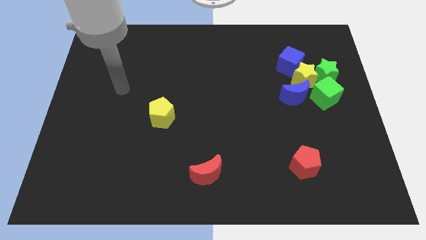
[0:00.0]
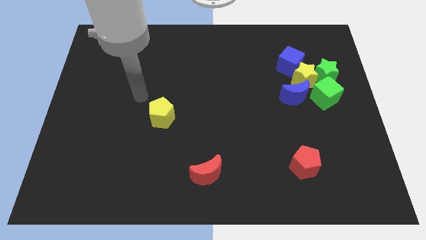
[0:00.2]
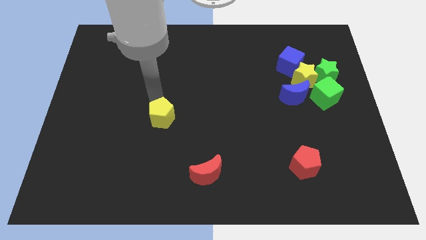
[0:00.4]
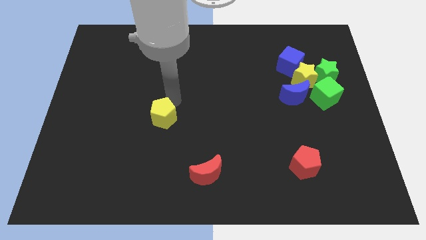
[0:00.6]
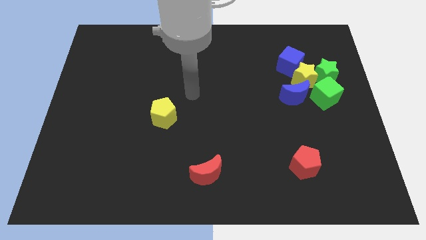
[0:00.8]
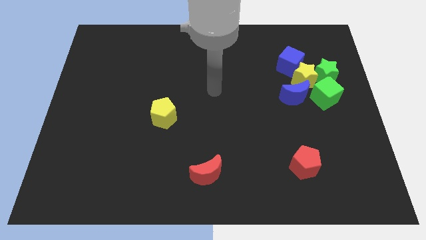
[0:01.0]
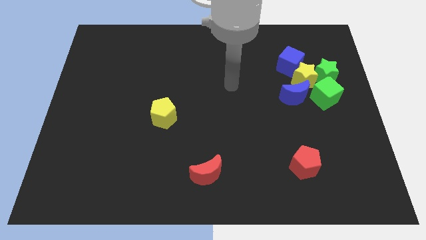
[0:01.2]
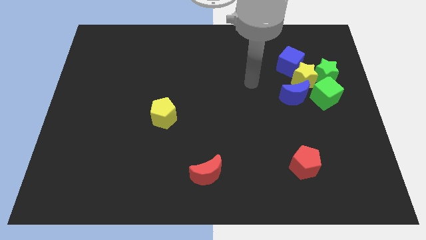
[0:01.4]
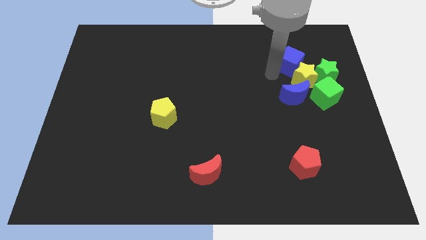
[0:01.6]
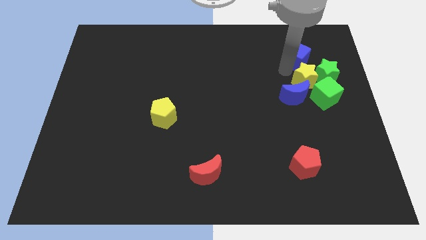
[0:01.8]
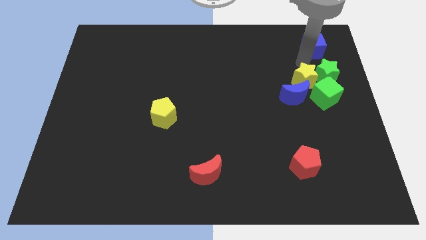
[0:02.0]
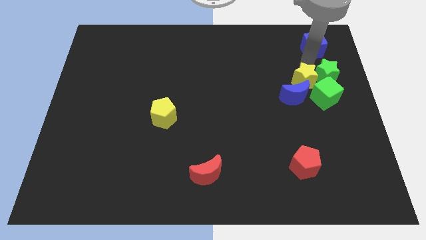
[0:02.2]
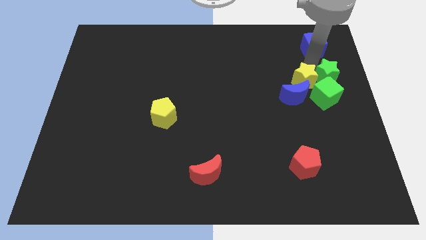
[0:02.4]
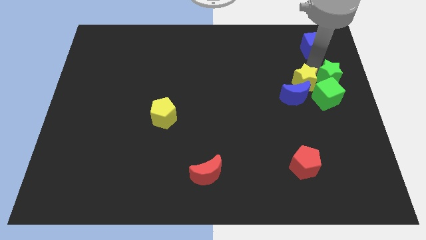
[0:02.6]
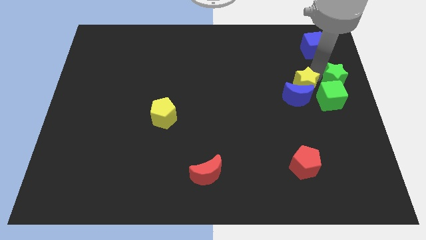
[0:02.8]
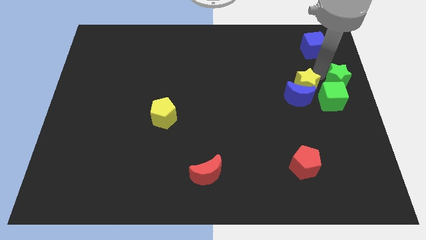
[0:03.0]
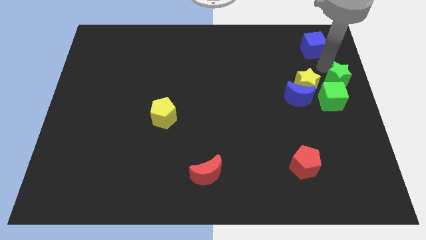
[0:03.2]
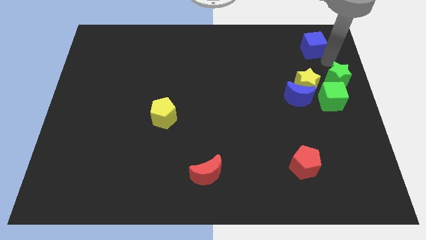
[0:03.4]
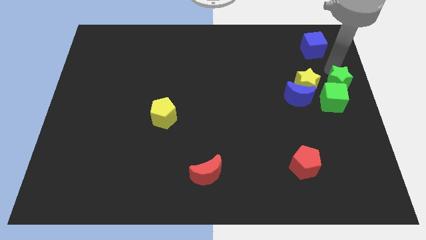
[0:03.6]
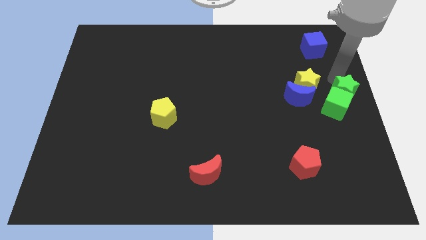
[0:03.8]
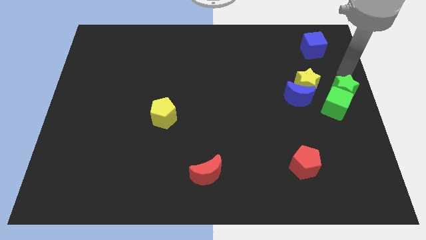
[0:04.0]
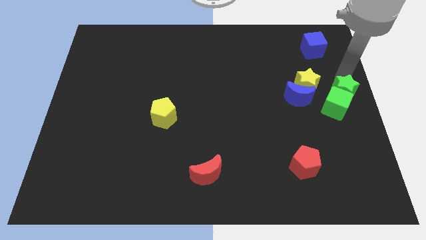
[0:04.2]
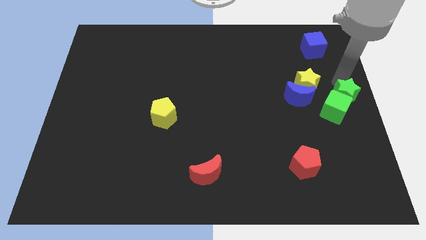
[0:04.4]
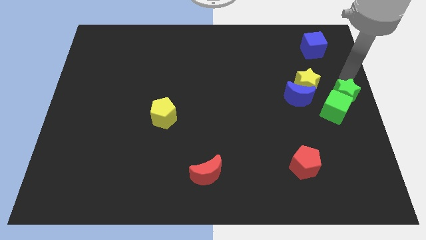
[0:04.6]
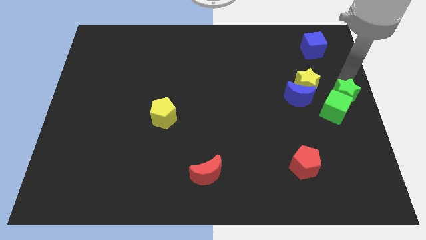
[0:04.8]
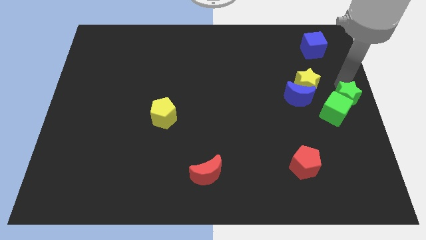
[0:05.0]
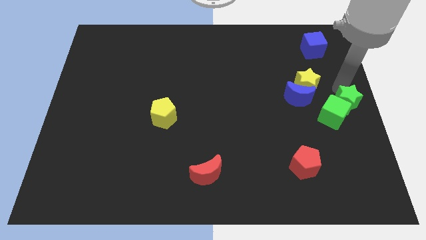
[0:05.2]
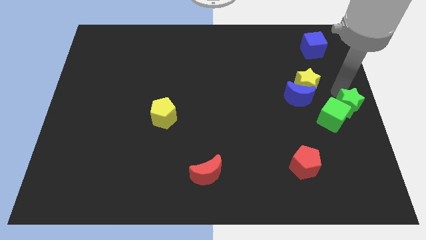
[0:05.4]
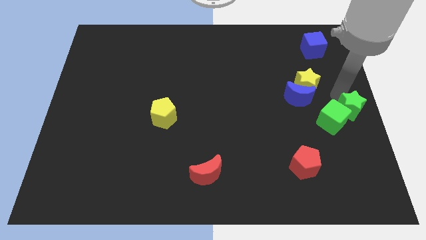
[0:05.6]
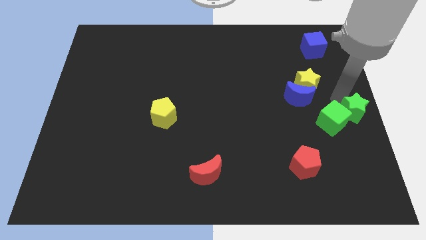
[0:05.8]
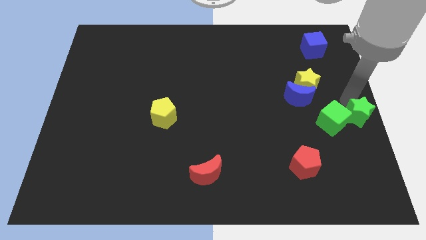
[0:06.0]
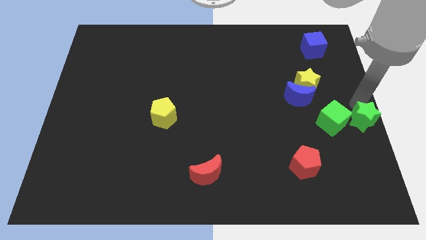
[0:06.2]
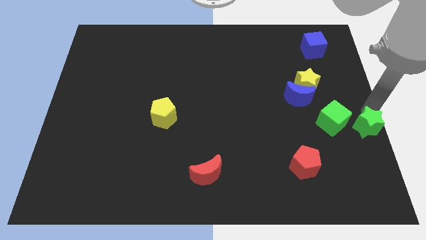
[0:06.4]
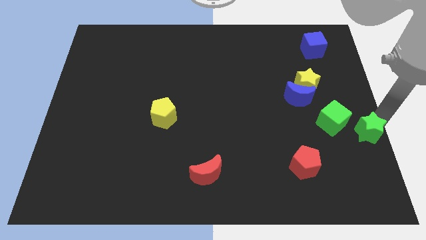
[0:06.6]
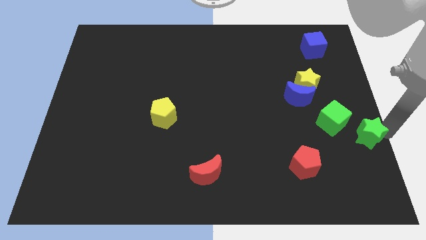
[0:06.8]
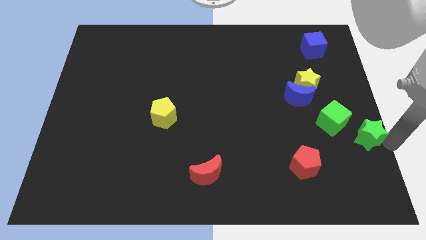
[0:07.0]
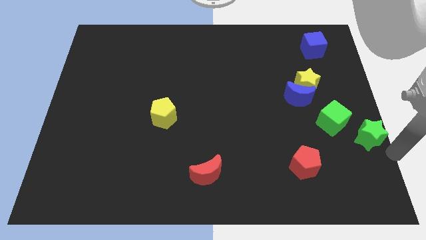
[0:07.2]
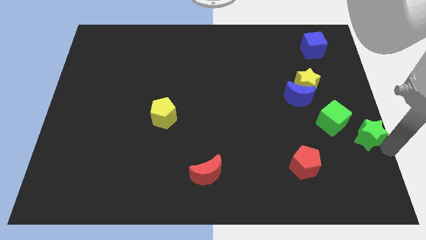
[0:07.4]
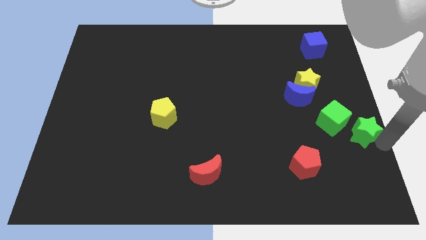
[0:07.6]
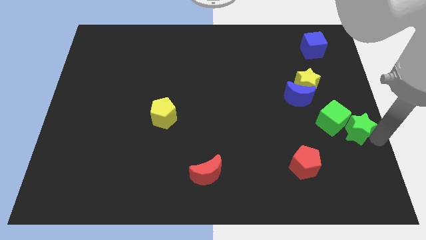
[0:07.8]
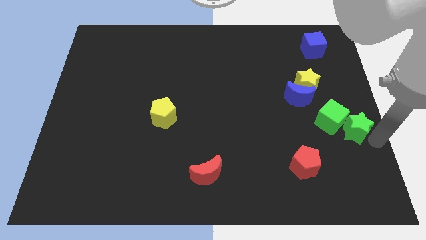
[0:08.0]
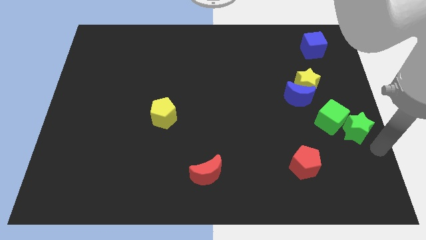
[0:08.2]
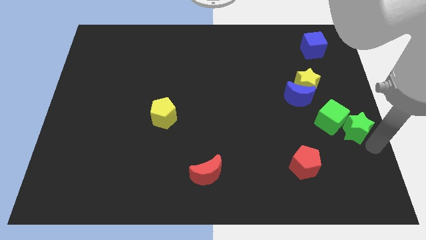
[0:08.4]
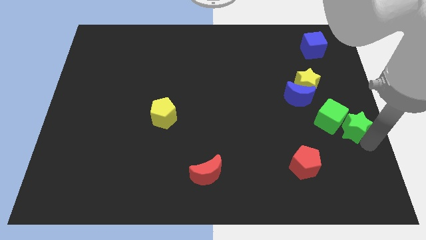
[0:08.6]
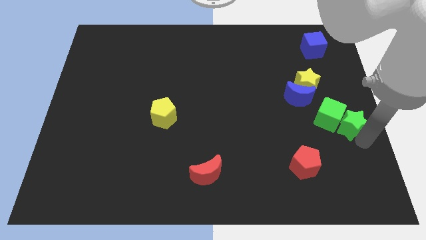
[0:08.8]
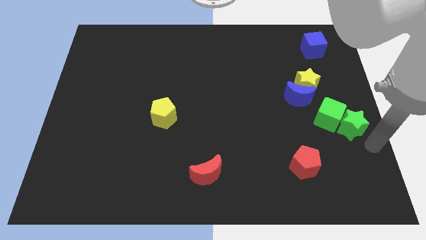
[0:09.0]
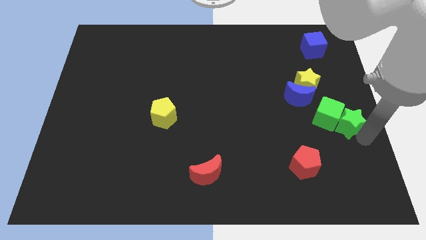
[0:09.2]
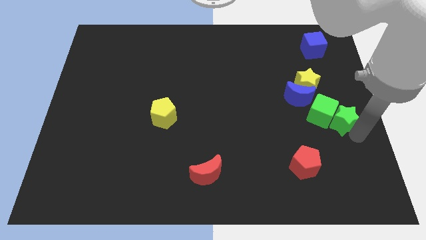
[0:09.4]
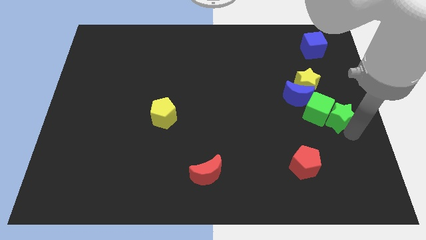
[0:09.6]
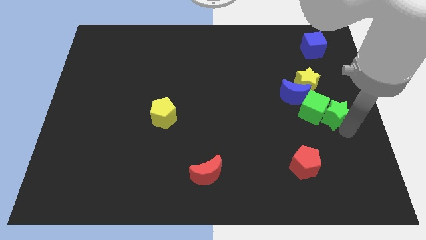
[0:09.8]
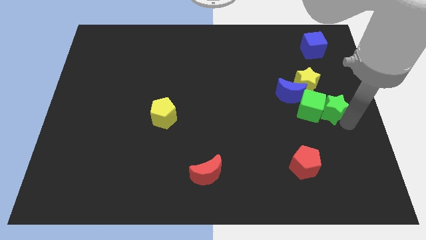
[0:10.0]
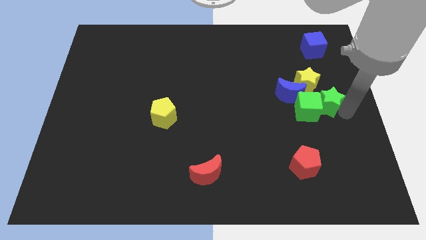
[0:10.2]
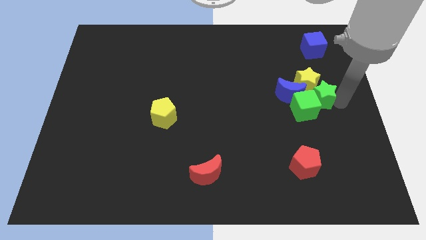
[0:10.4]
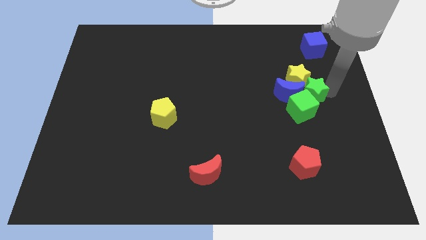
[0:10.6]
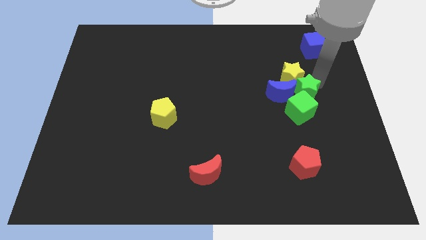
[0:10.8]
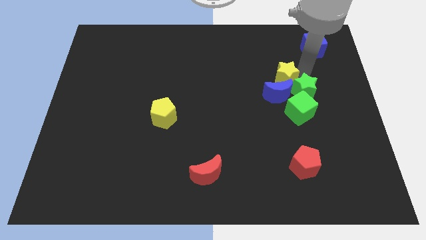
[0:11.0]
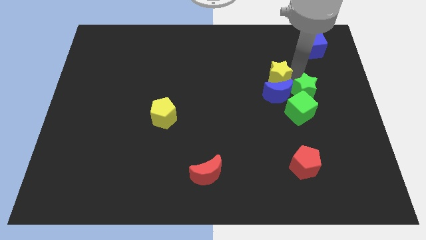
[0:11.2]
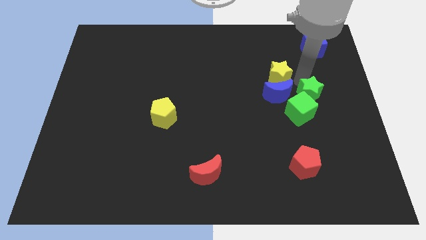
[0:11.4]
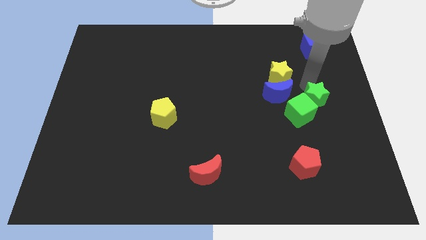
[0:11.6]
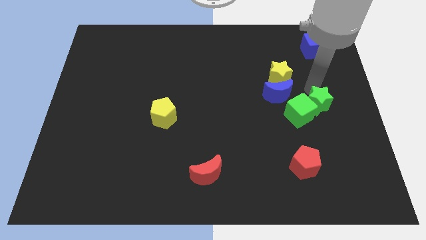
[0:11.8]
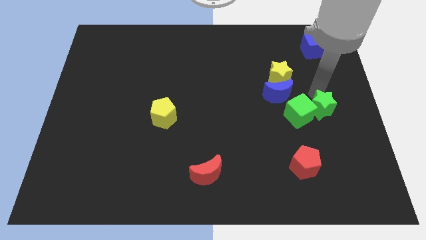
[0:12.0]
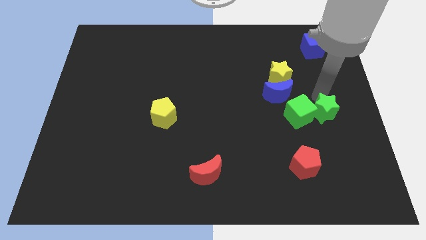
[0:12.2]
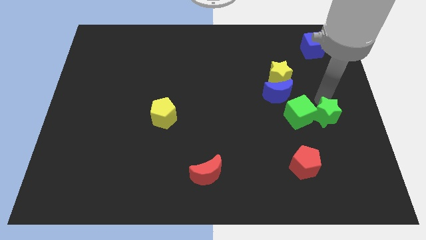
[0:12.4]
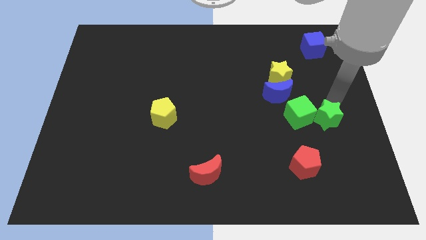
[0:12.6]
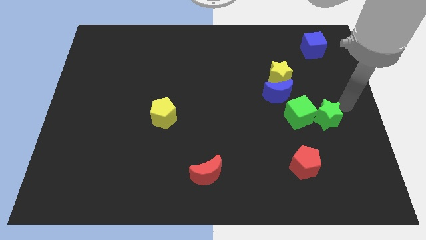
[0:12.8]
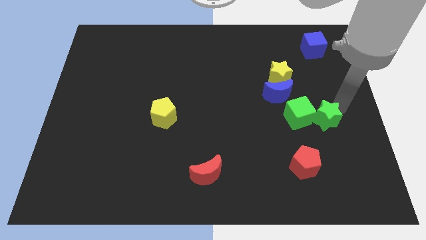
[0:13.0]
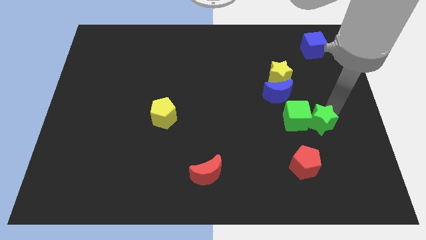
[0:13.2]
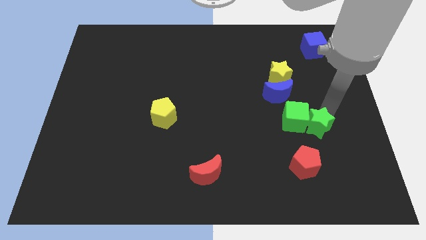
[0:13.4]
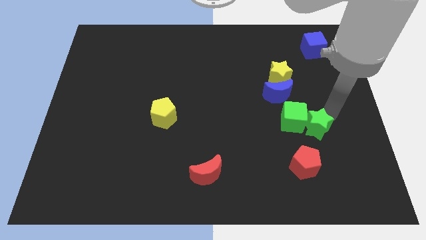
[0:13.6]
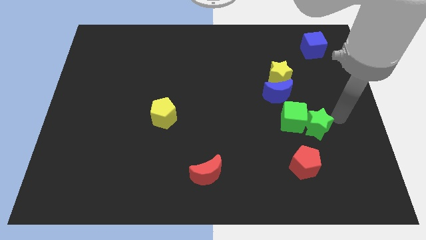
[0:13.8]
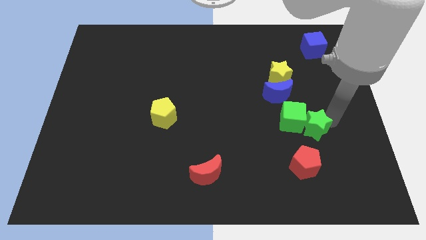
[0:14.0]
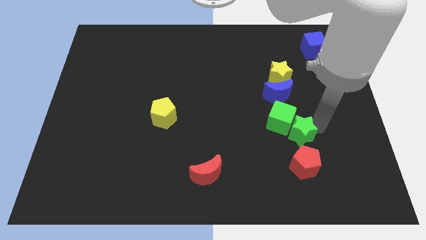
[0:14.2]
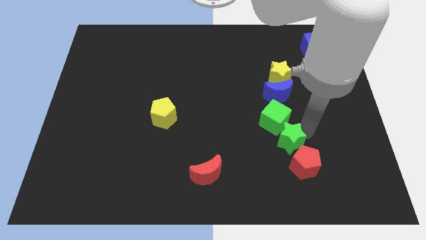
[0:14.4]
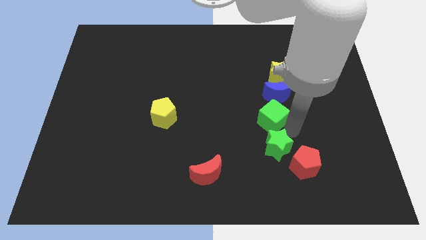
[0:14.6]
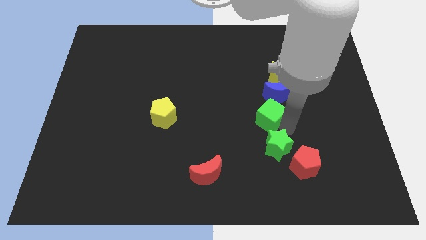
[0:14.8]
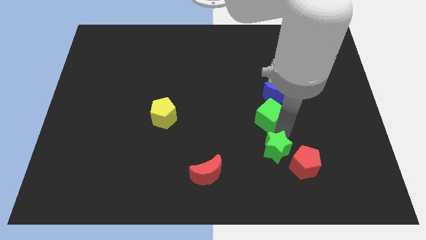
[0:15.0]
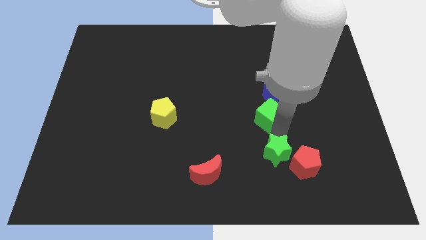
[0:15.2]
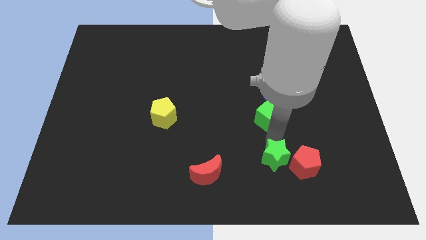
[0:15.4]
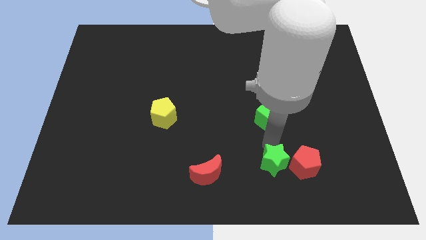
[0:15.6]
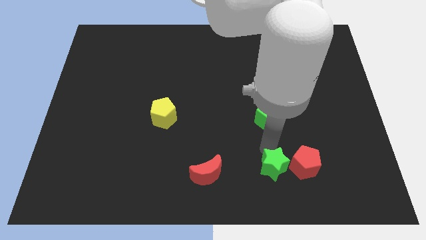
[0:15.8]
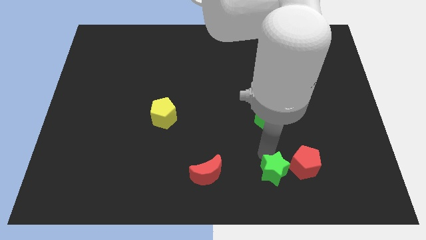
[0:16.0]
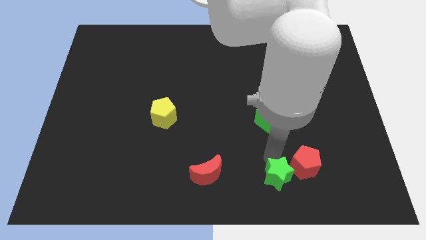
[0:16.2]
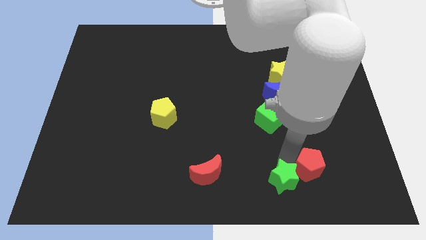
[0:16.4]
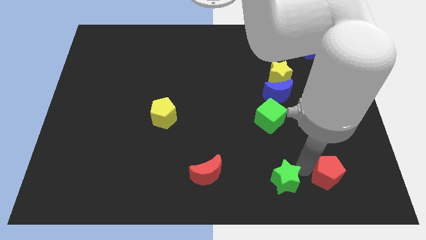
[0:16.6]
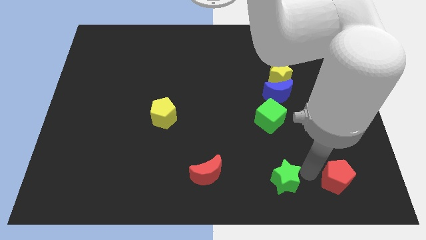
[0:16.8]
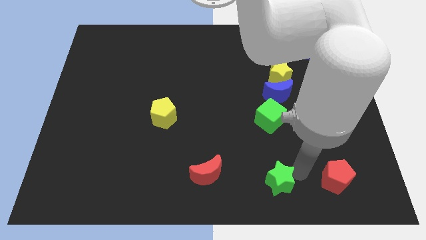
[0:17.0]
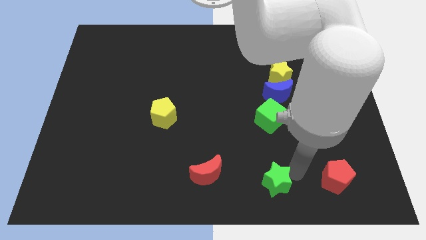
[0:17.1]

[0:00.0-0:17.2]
move the green star to the bottom side
